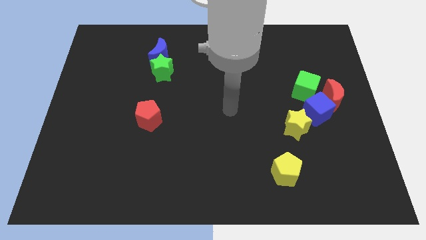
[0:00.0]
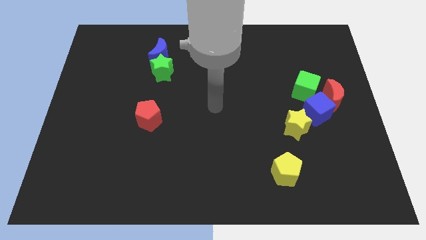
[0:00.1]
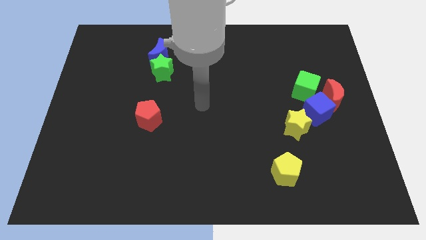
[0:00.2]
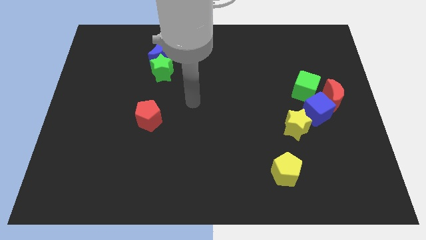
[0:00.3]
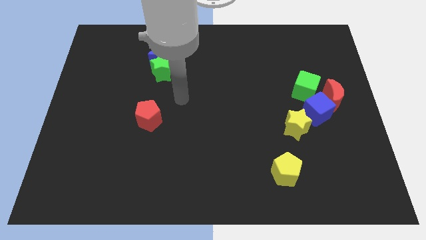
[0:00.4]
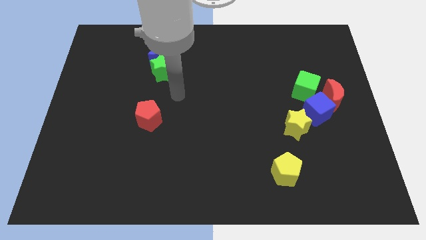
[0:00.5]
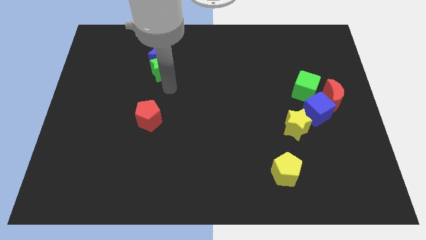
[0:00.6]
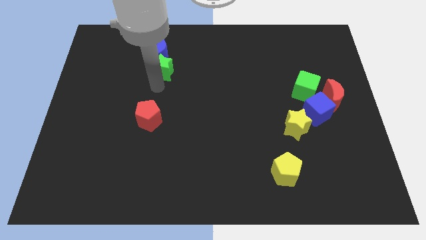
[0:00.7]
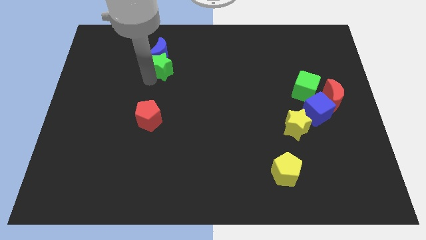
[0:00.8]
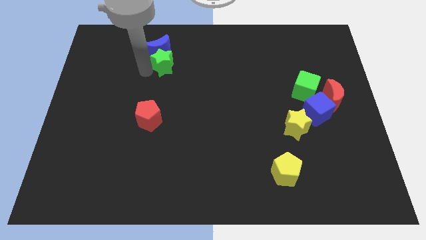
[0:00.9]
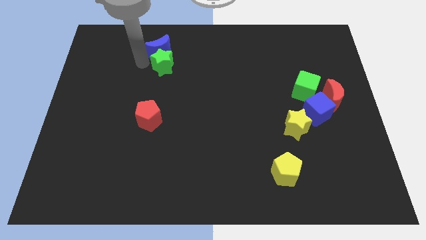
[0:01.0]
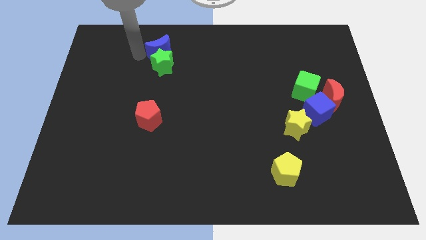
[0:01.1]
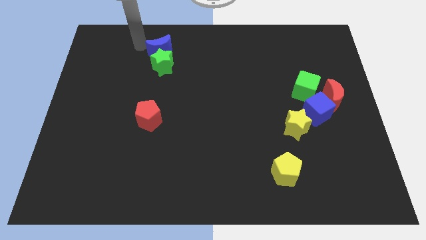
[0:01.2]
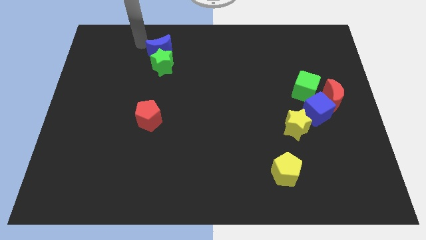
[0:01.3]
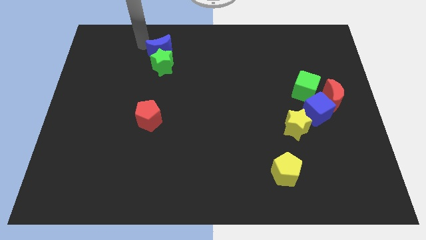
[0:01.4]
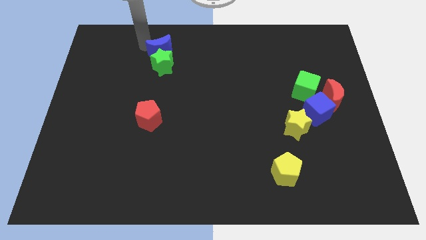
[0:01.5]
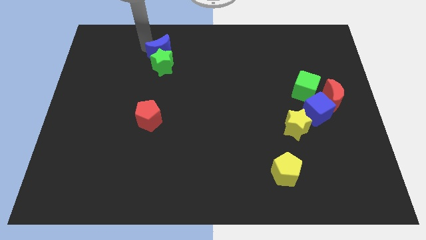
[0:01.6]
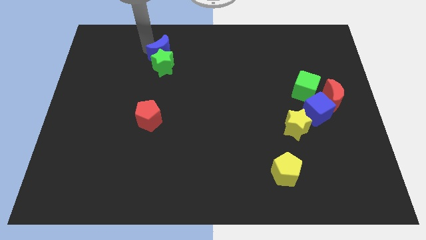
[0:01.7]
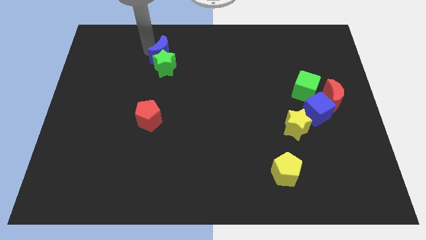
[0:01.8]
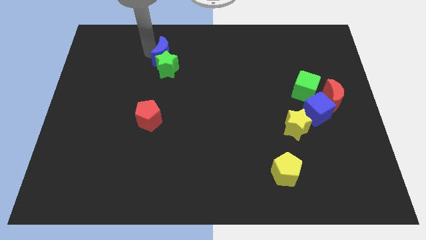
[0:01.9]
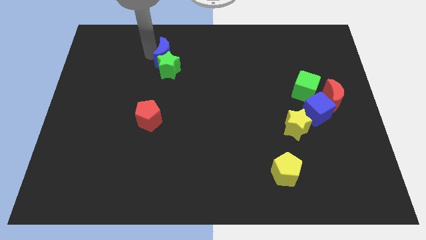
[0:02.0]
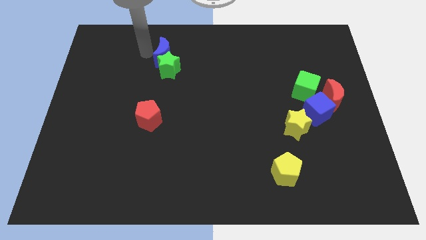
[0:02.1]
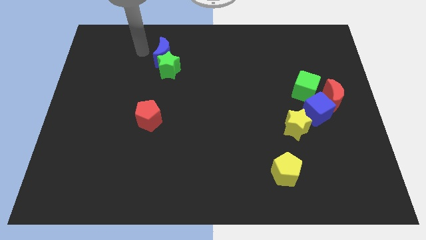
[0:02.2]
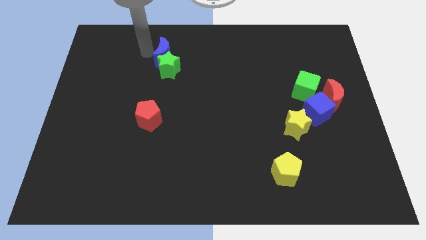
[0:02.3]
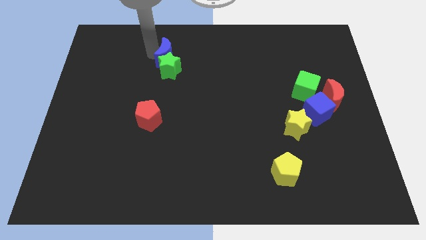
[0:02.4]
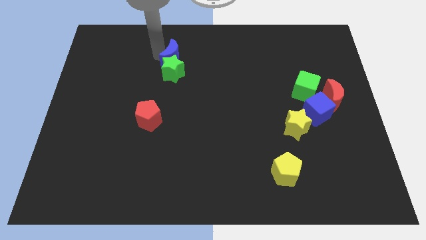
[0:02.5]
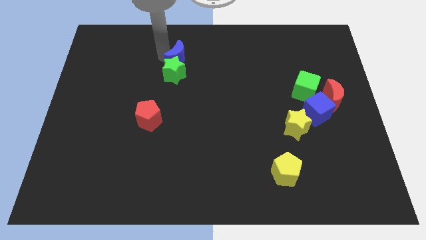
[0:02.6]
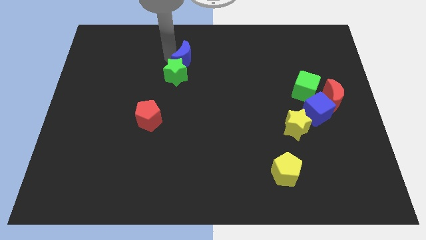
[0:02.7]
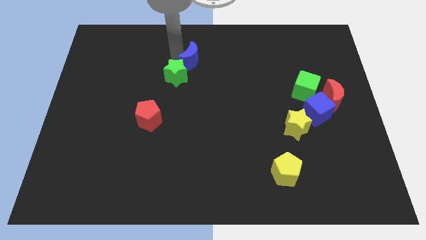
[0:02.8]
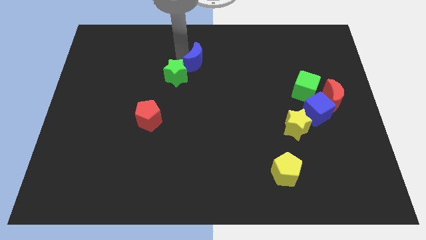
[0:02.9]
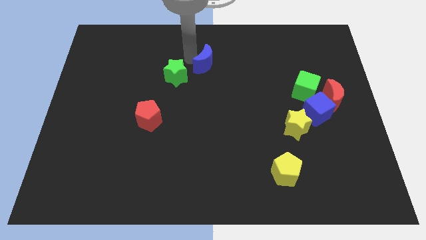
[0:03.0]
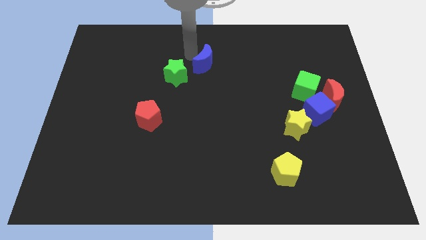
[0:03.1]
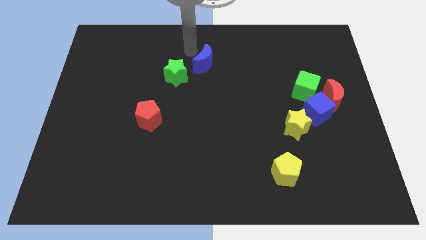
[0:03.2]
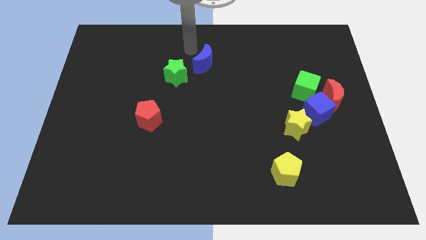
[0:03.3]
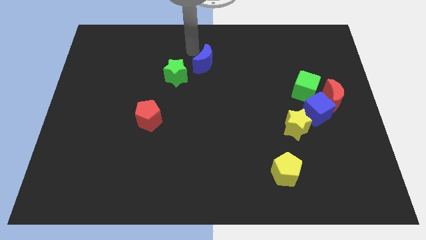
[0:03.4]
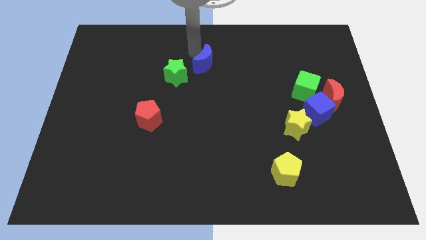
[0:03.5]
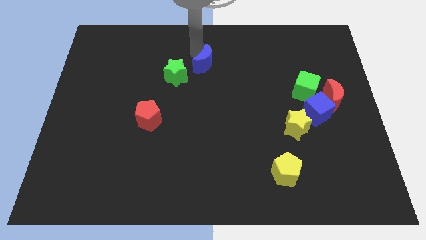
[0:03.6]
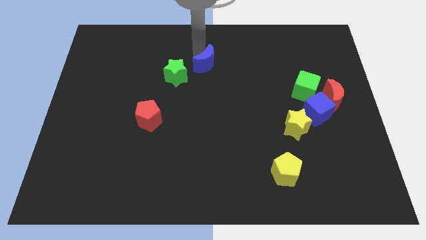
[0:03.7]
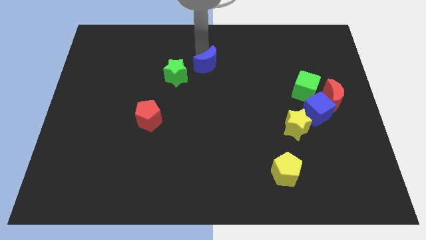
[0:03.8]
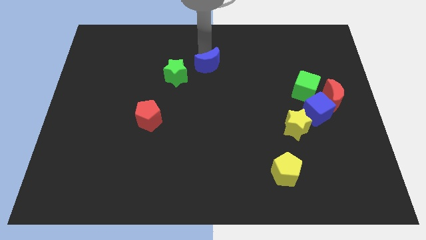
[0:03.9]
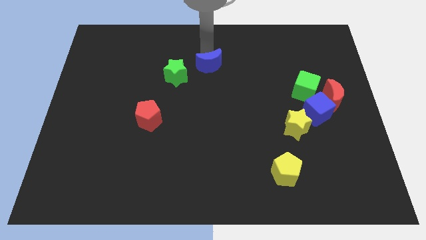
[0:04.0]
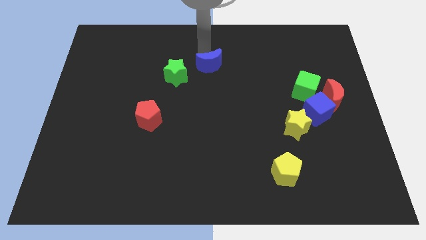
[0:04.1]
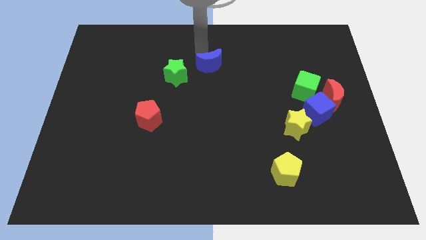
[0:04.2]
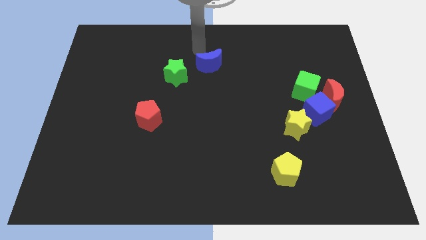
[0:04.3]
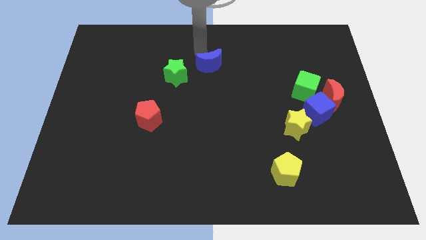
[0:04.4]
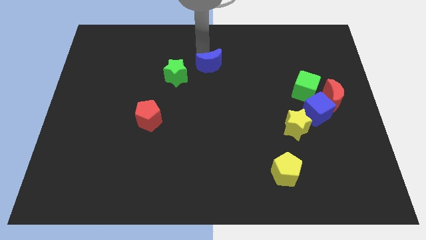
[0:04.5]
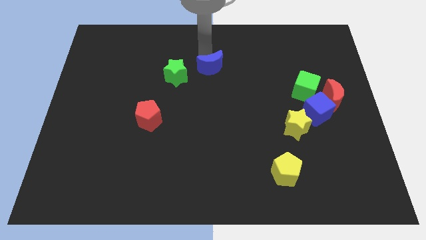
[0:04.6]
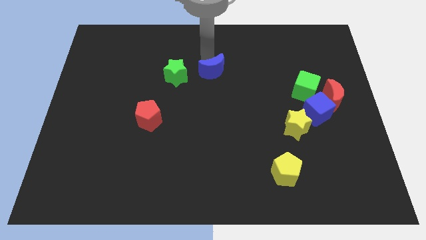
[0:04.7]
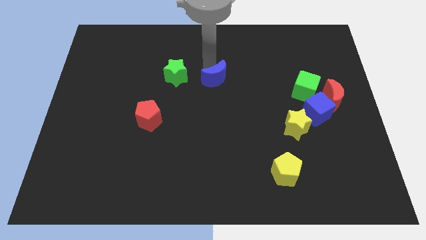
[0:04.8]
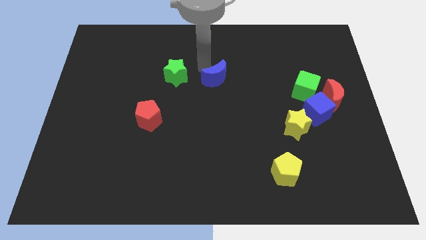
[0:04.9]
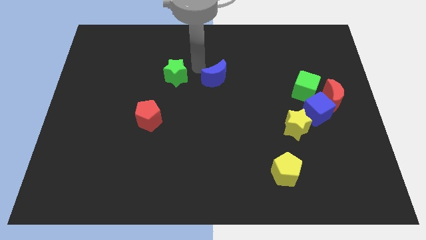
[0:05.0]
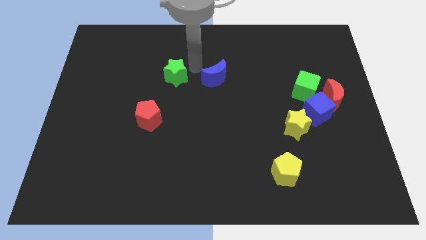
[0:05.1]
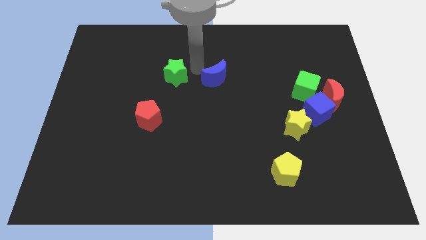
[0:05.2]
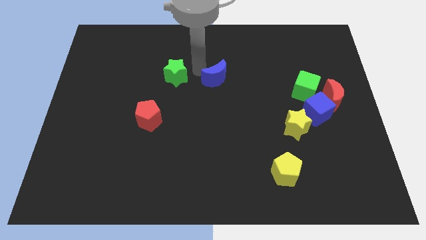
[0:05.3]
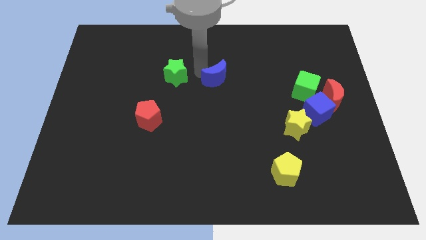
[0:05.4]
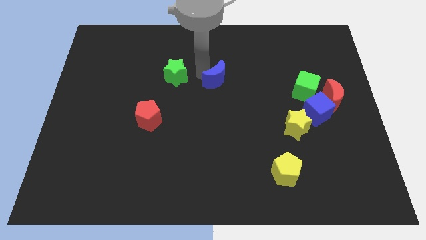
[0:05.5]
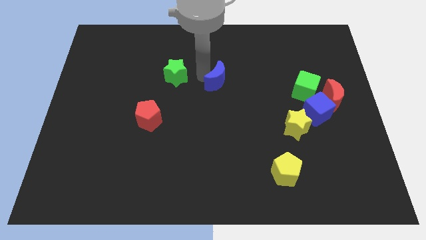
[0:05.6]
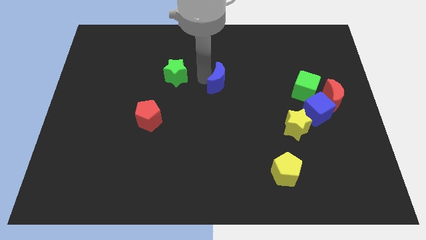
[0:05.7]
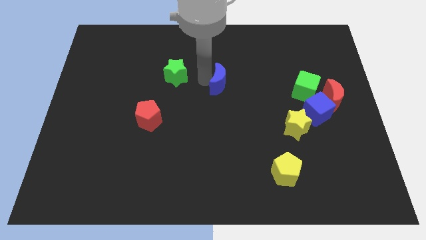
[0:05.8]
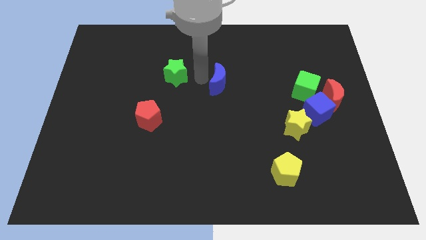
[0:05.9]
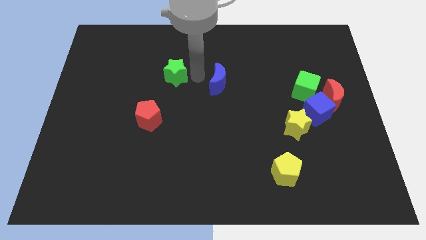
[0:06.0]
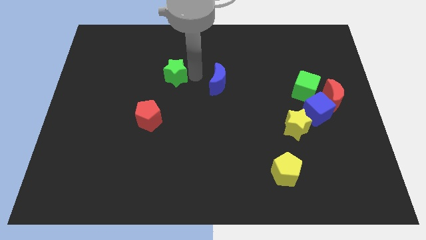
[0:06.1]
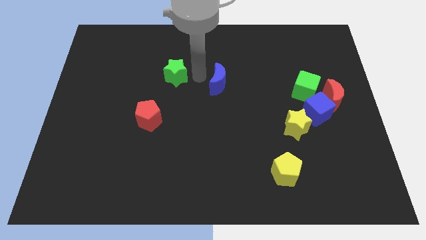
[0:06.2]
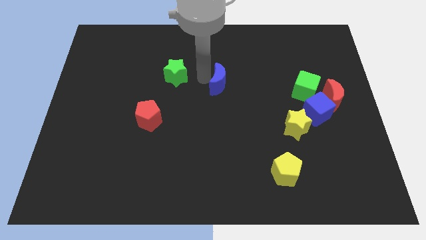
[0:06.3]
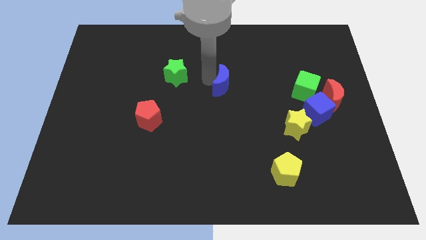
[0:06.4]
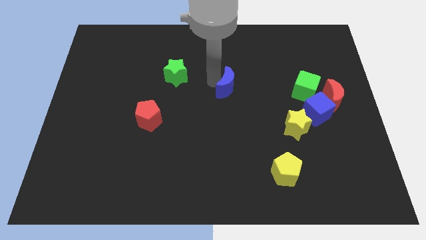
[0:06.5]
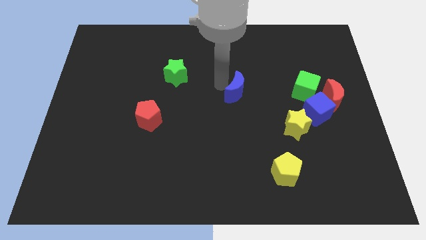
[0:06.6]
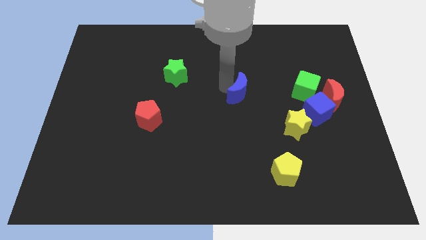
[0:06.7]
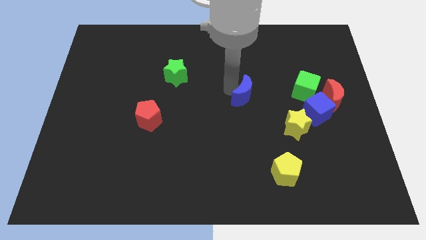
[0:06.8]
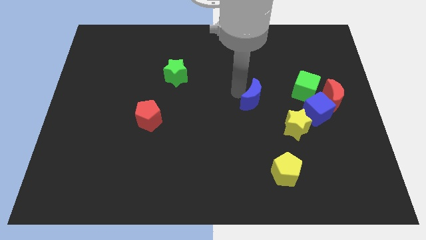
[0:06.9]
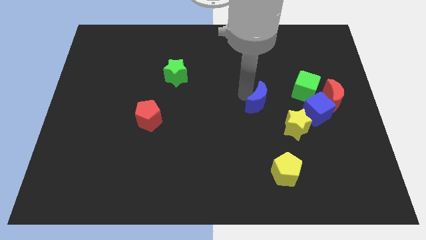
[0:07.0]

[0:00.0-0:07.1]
slide the blue moon to the left side of the blue cube
